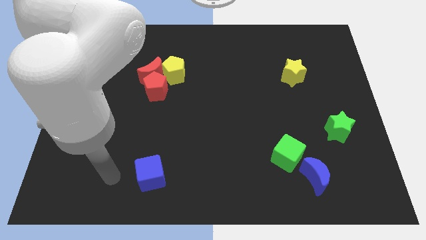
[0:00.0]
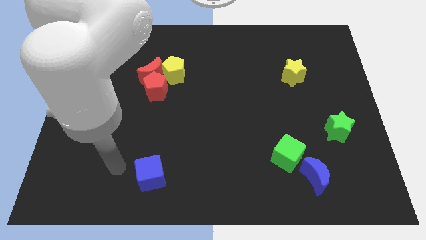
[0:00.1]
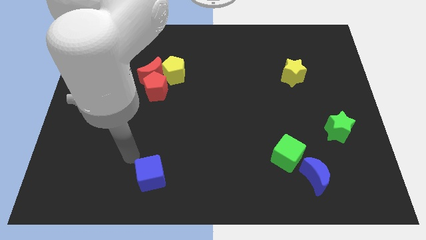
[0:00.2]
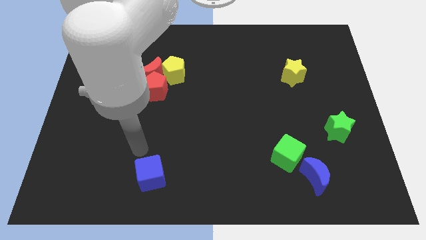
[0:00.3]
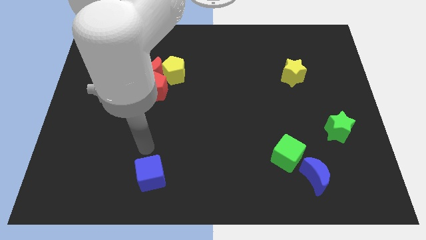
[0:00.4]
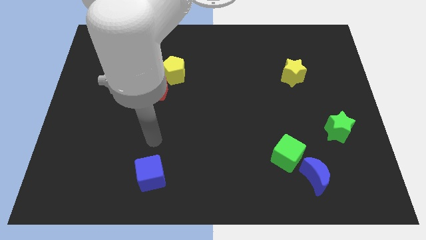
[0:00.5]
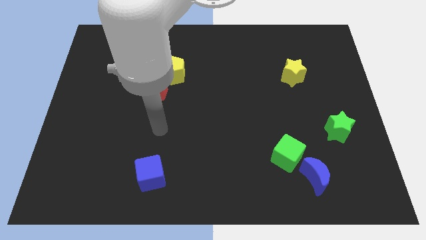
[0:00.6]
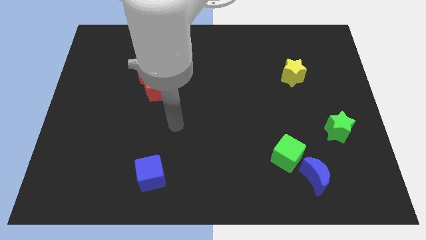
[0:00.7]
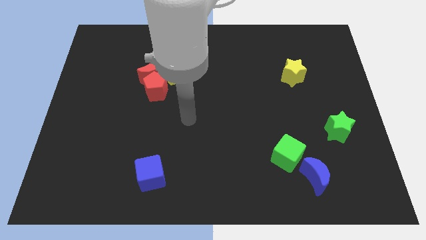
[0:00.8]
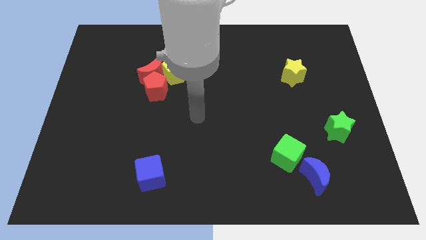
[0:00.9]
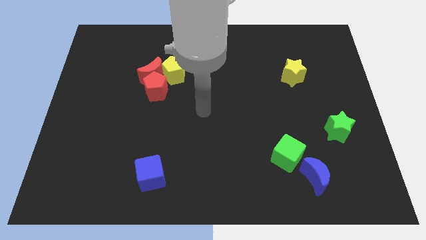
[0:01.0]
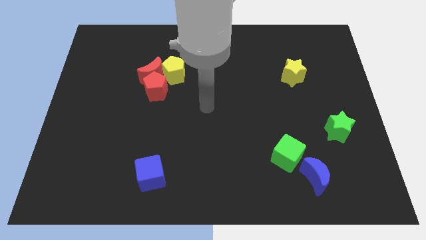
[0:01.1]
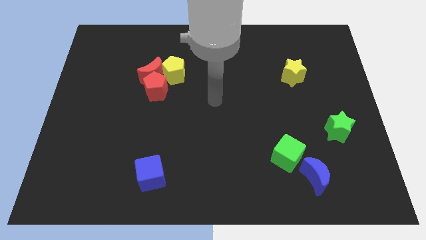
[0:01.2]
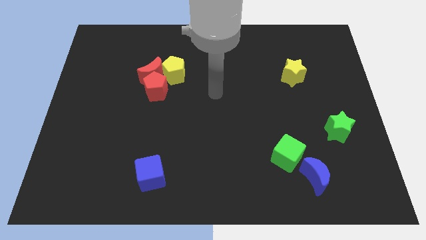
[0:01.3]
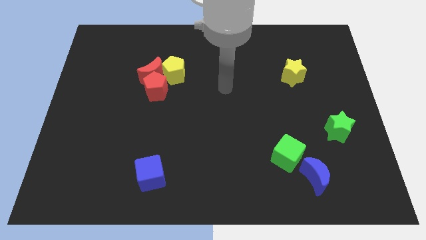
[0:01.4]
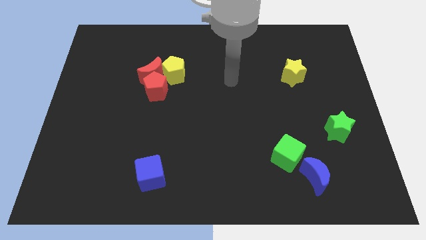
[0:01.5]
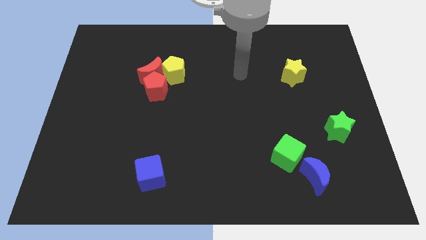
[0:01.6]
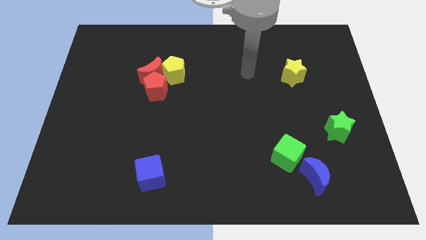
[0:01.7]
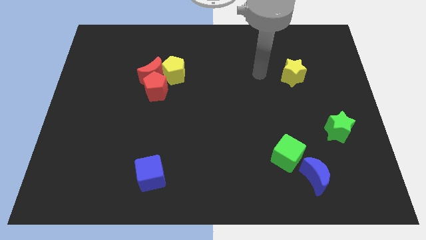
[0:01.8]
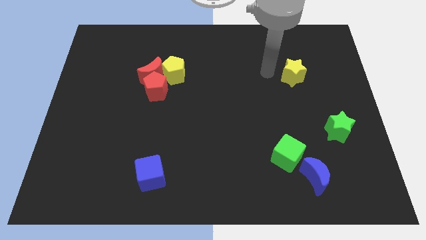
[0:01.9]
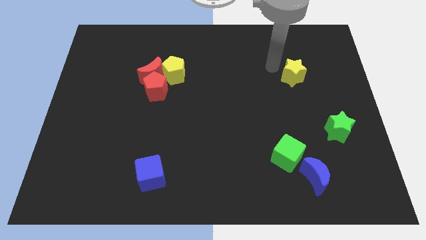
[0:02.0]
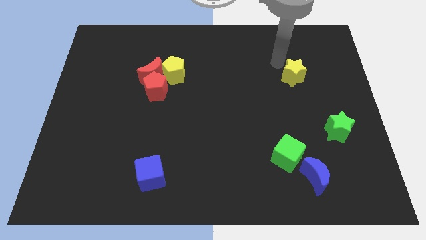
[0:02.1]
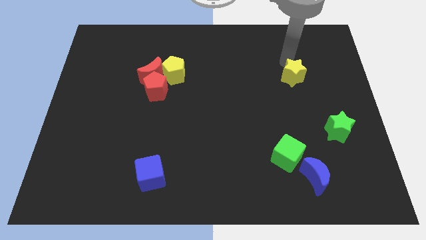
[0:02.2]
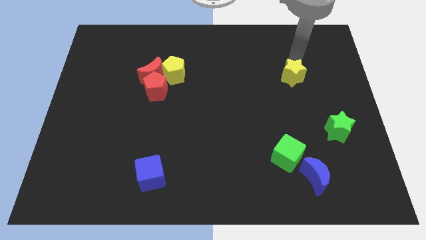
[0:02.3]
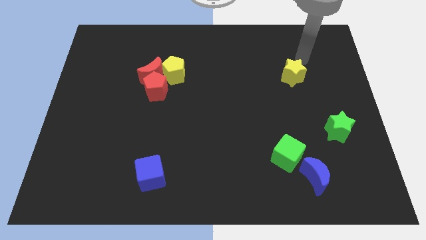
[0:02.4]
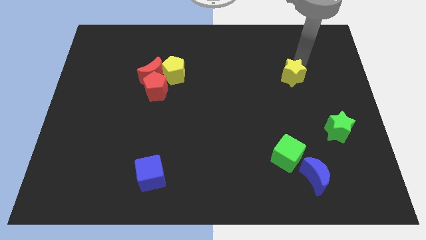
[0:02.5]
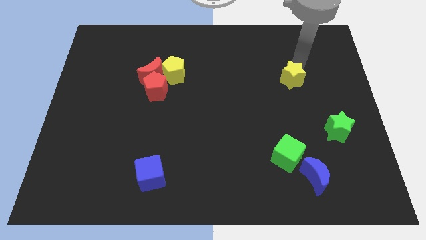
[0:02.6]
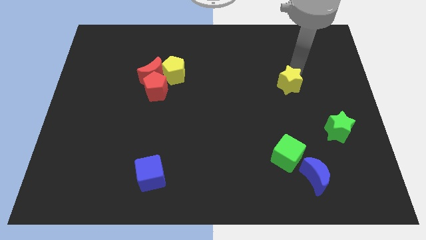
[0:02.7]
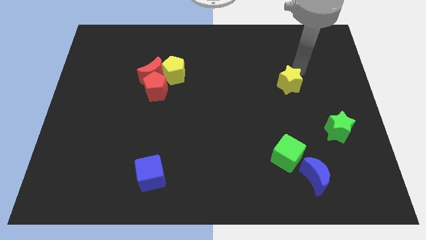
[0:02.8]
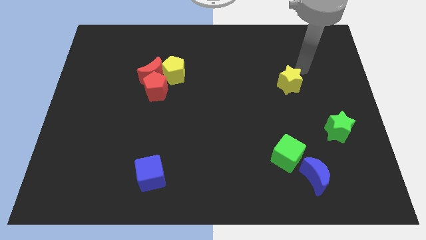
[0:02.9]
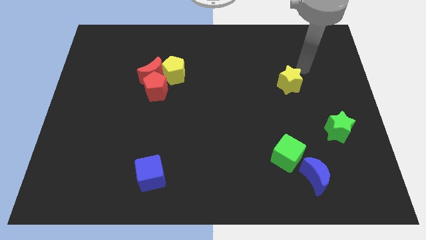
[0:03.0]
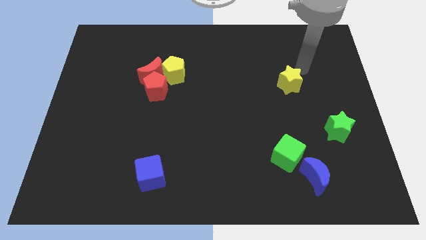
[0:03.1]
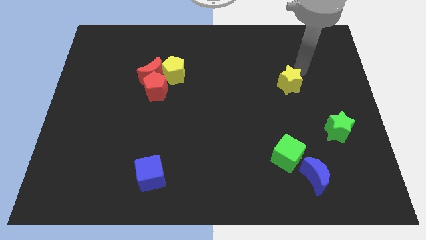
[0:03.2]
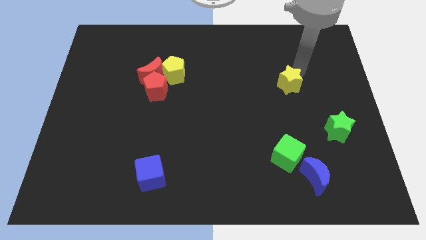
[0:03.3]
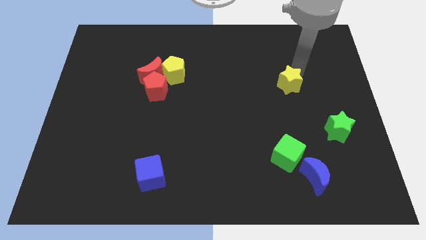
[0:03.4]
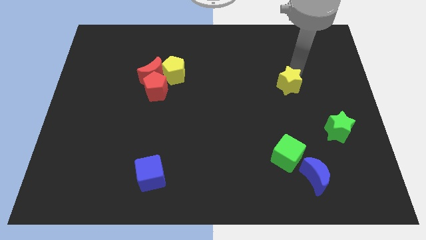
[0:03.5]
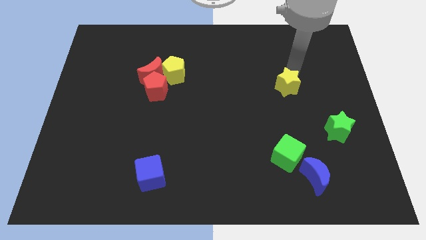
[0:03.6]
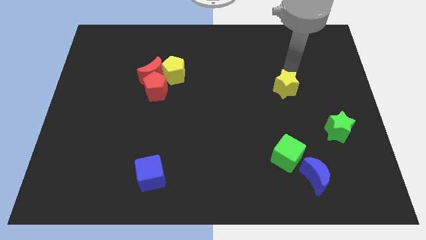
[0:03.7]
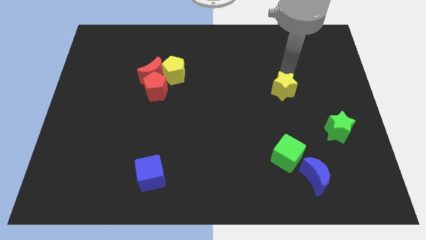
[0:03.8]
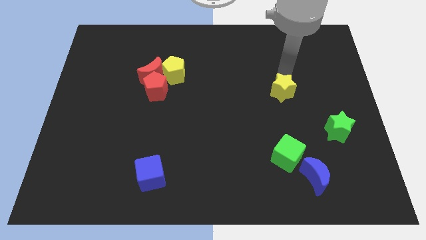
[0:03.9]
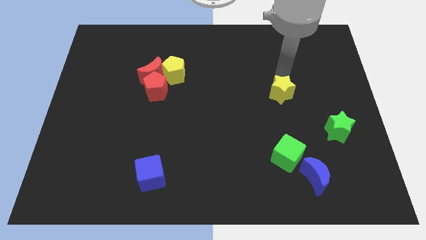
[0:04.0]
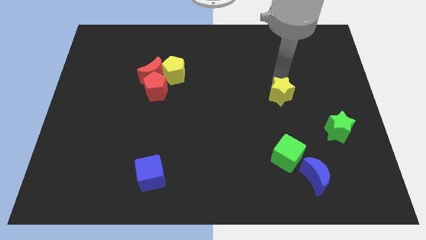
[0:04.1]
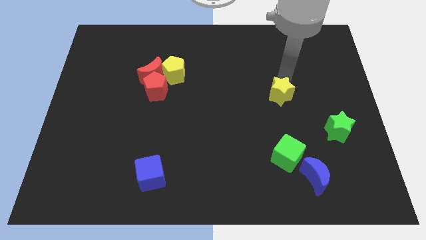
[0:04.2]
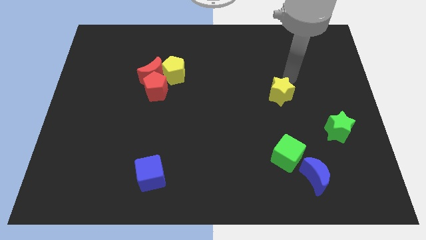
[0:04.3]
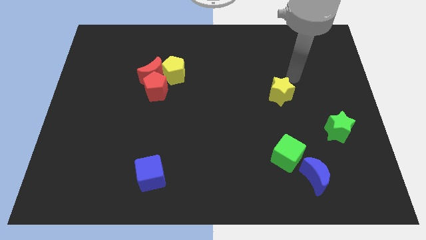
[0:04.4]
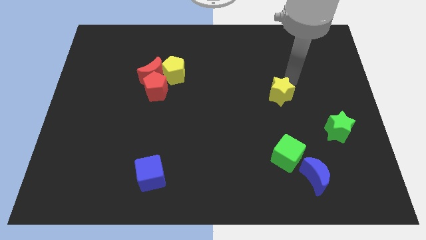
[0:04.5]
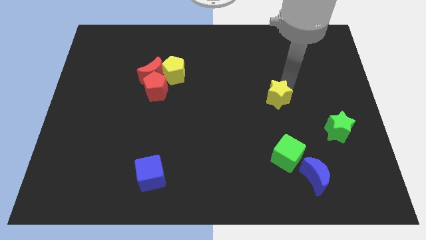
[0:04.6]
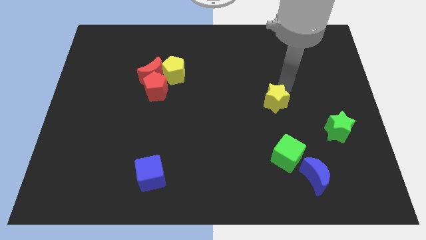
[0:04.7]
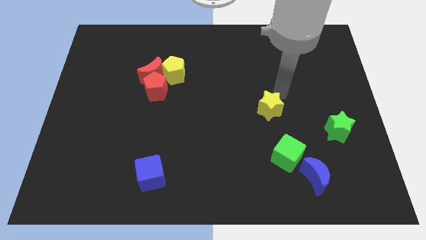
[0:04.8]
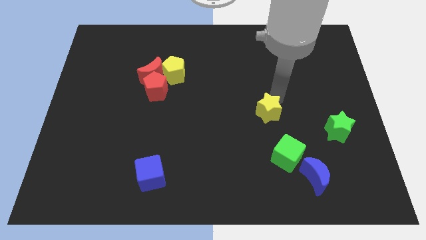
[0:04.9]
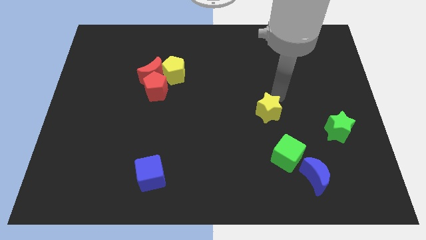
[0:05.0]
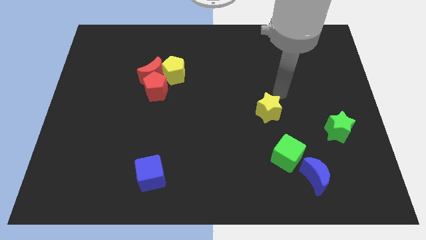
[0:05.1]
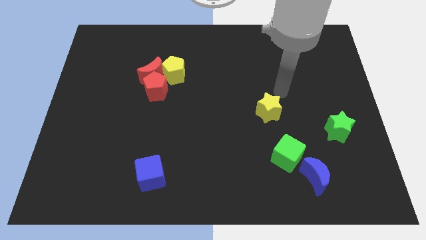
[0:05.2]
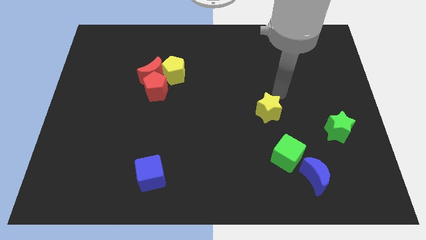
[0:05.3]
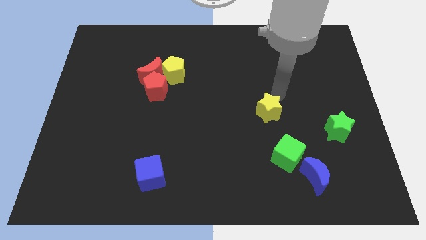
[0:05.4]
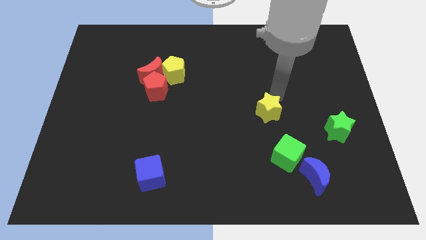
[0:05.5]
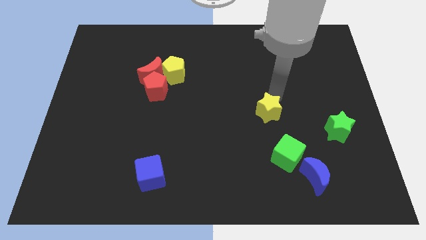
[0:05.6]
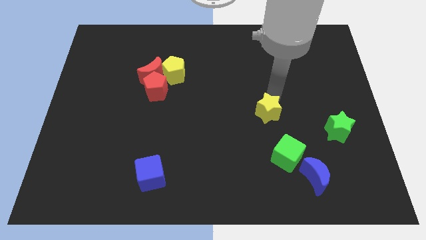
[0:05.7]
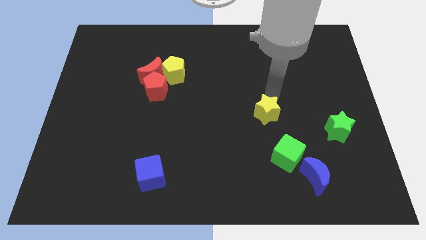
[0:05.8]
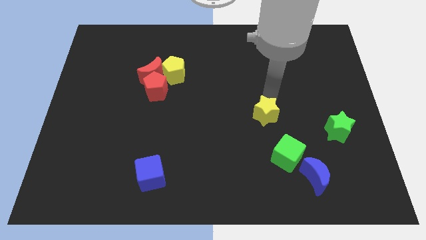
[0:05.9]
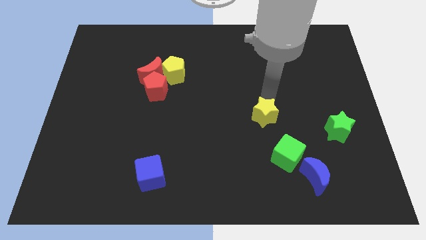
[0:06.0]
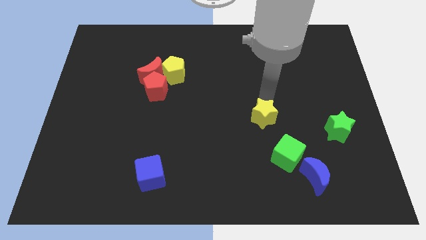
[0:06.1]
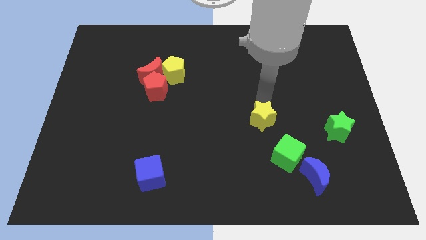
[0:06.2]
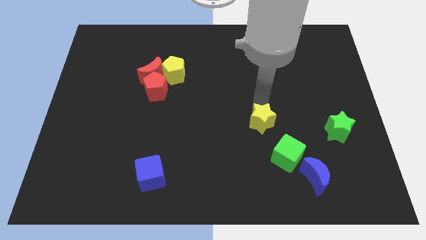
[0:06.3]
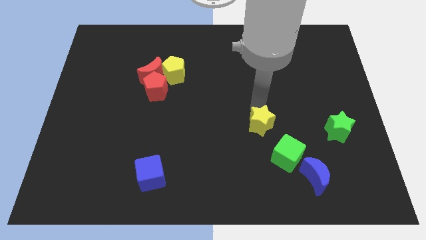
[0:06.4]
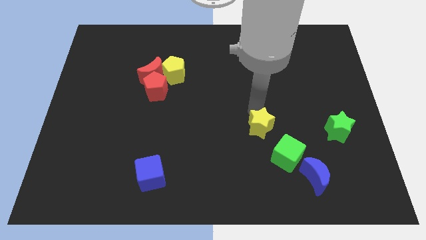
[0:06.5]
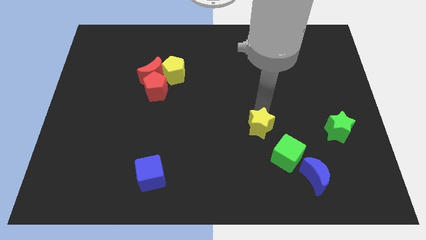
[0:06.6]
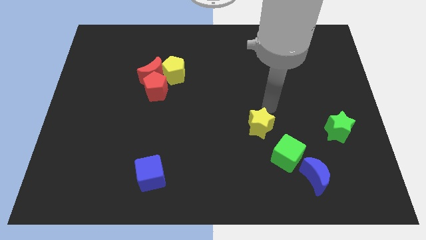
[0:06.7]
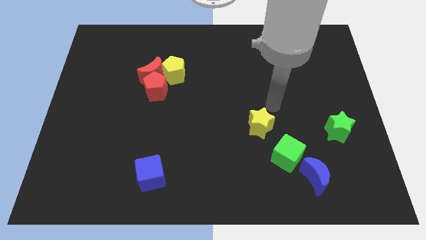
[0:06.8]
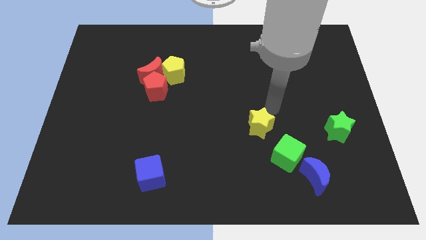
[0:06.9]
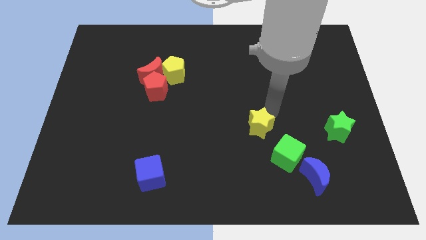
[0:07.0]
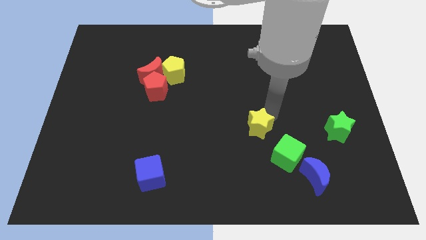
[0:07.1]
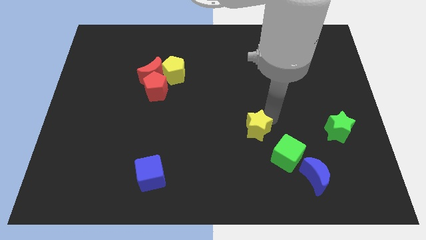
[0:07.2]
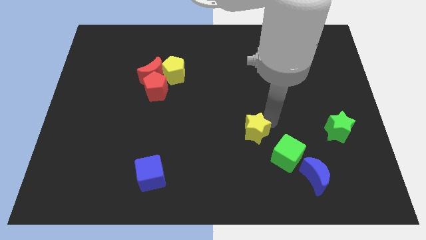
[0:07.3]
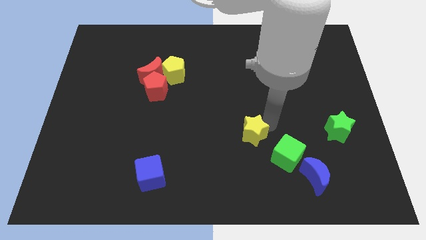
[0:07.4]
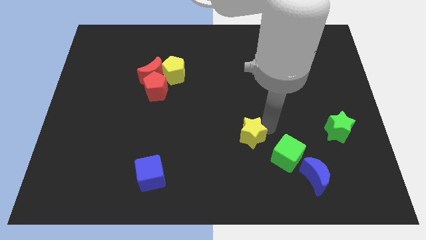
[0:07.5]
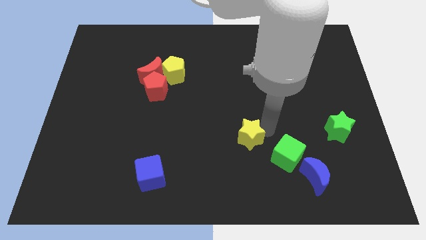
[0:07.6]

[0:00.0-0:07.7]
move the yellow star just left of the green cube
